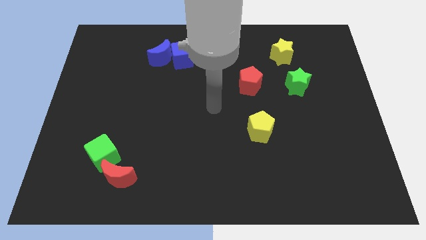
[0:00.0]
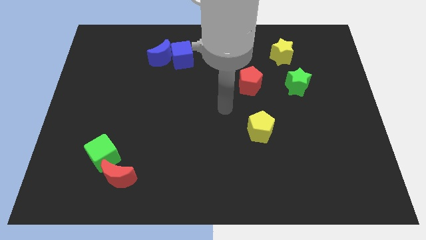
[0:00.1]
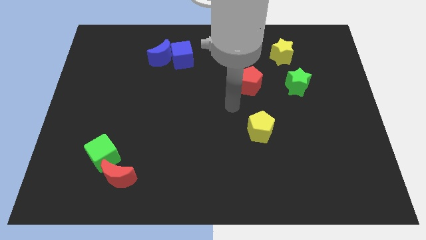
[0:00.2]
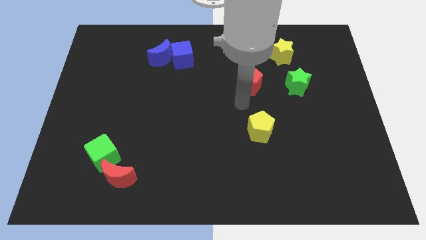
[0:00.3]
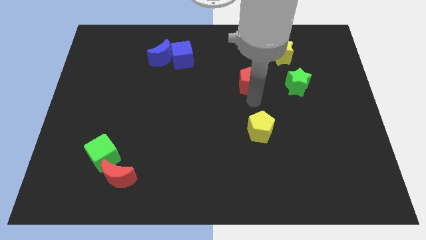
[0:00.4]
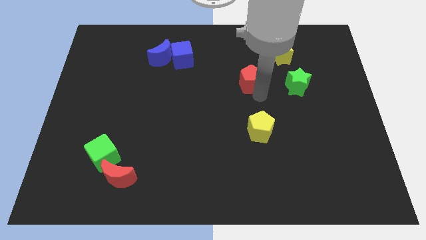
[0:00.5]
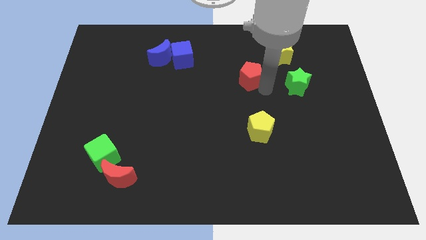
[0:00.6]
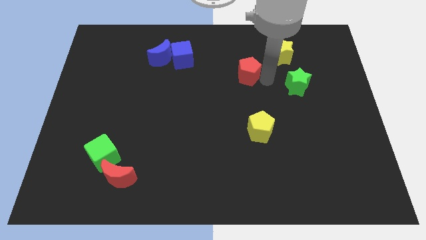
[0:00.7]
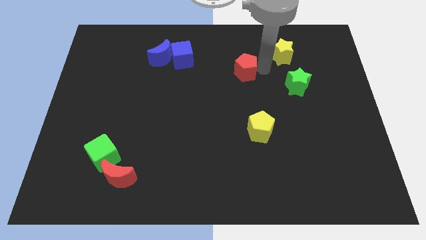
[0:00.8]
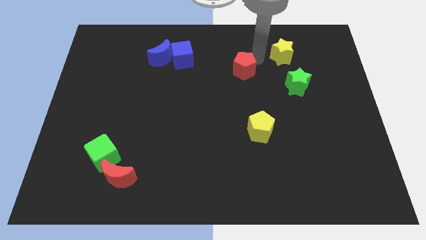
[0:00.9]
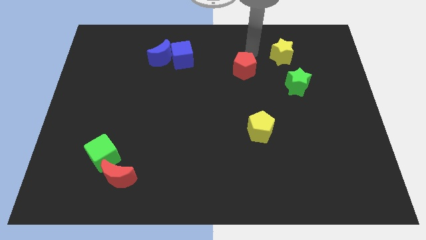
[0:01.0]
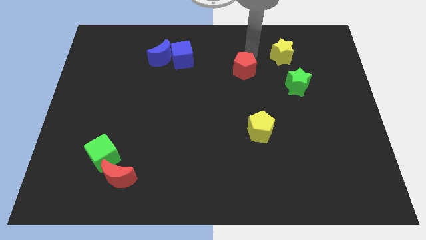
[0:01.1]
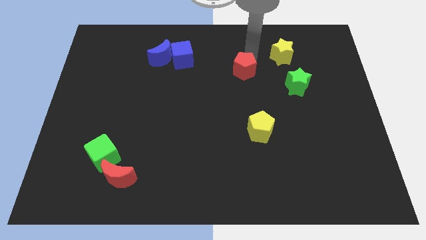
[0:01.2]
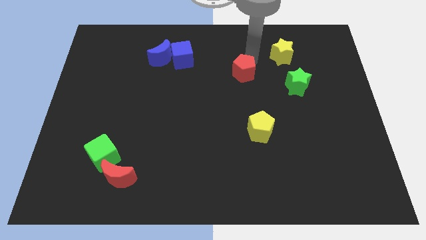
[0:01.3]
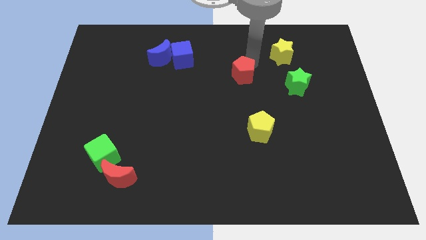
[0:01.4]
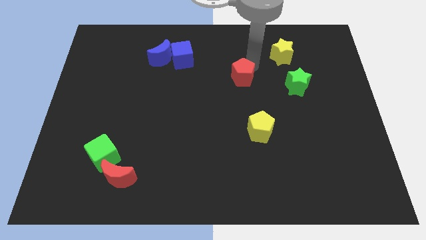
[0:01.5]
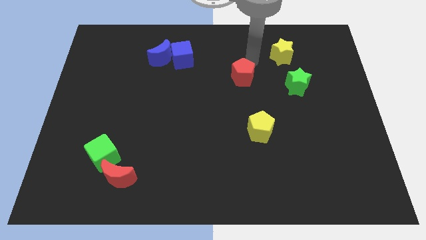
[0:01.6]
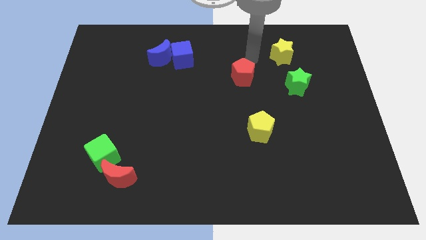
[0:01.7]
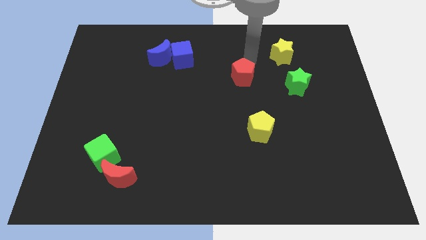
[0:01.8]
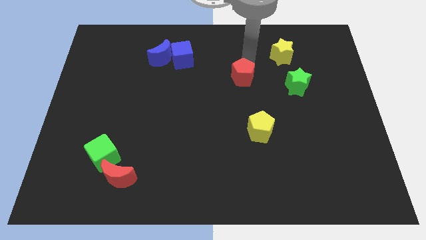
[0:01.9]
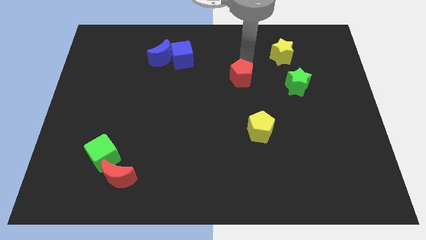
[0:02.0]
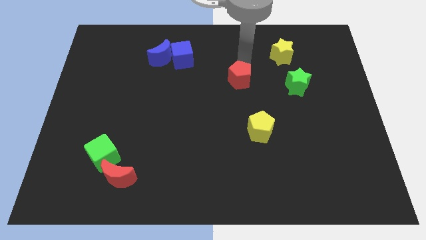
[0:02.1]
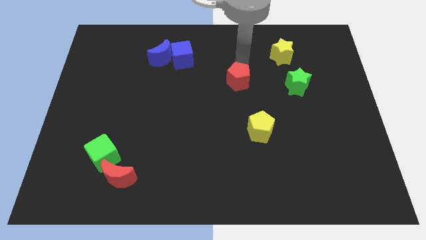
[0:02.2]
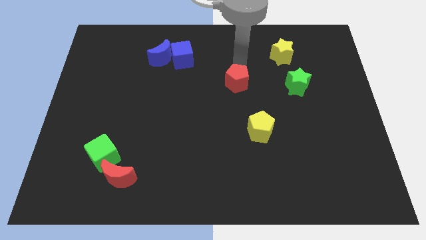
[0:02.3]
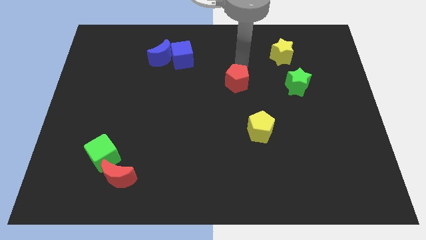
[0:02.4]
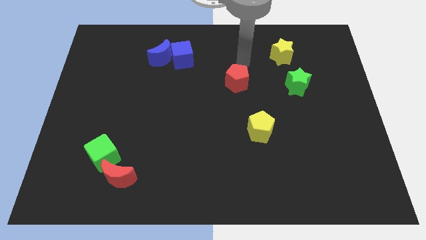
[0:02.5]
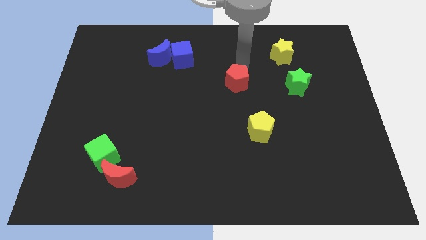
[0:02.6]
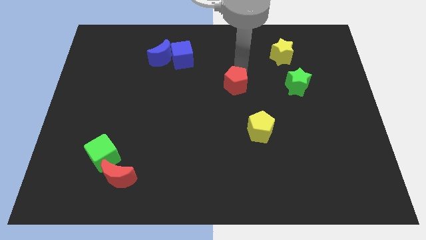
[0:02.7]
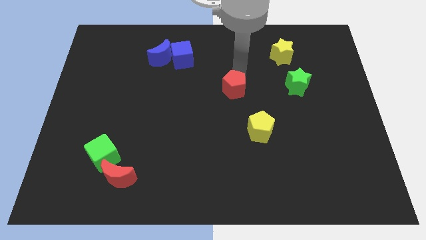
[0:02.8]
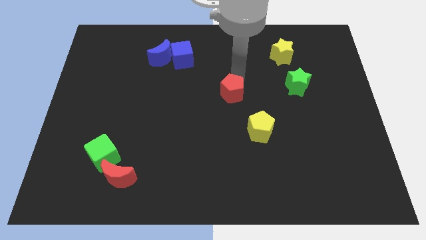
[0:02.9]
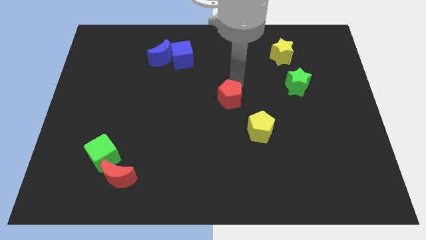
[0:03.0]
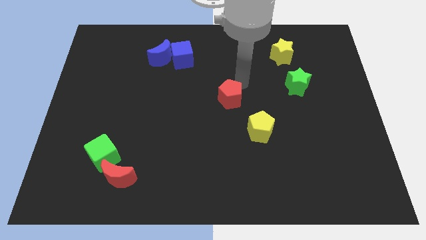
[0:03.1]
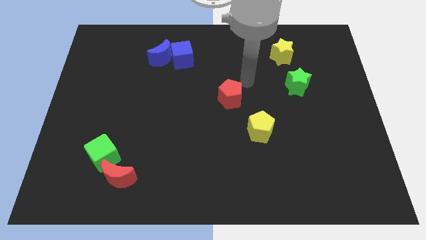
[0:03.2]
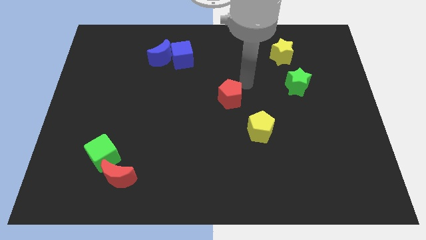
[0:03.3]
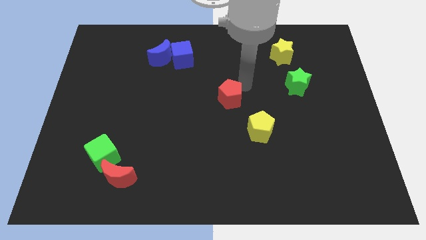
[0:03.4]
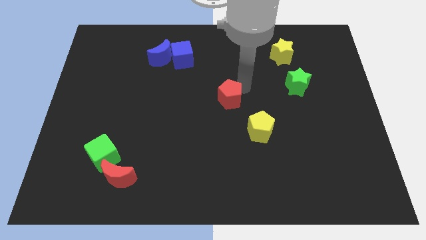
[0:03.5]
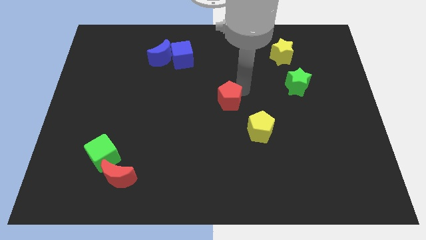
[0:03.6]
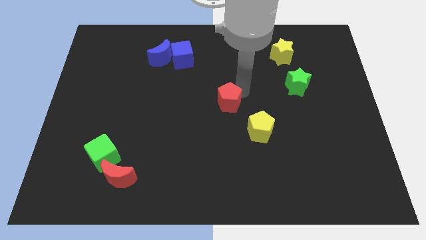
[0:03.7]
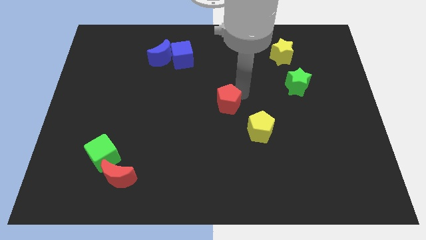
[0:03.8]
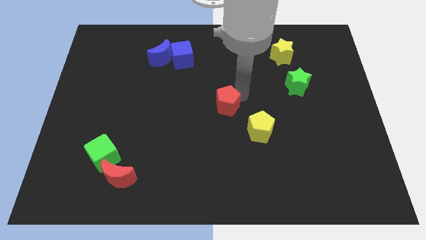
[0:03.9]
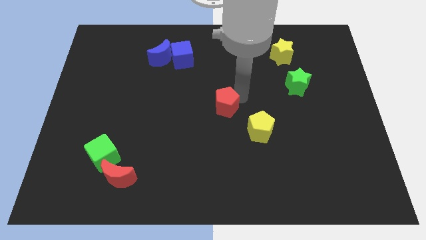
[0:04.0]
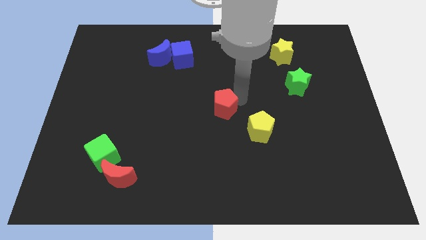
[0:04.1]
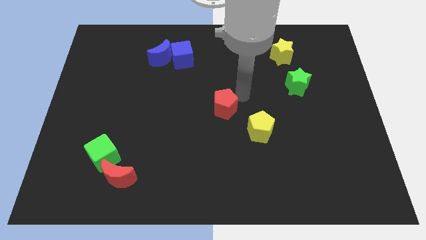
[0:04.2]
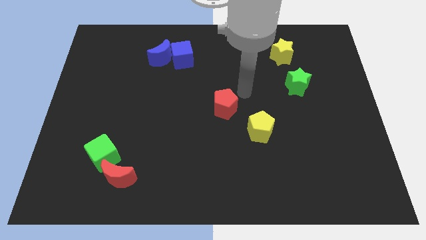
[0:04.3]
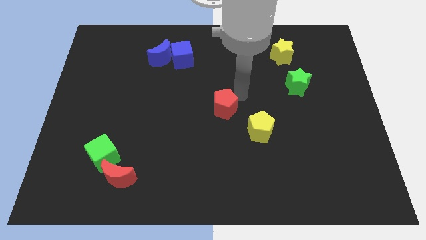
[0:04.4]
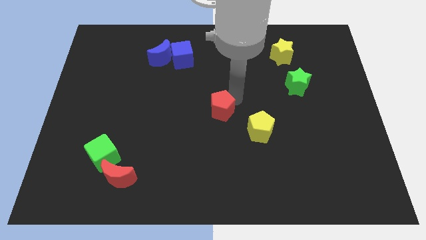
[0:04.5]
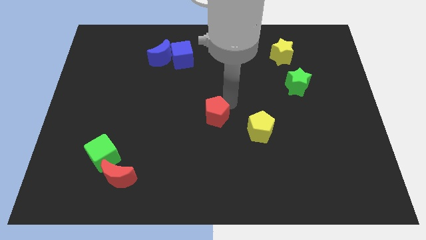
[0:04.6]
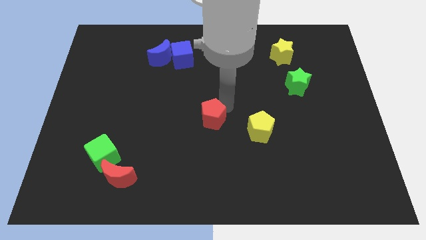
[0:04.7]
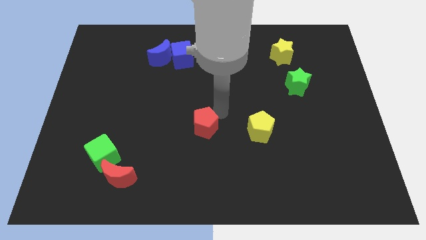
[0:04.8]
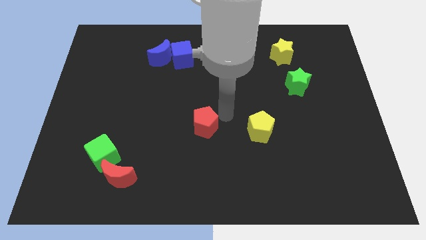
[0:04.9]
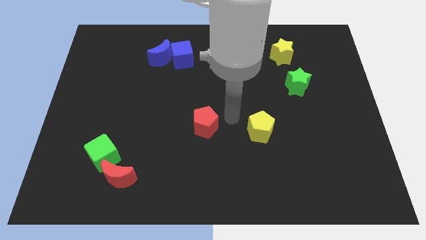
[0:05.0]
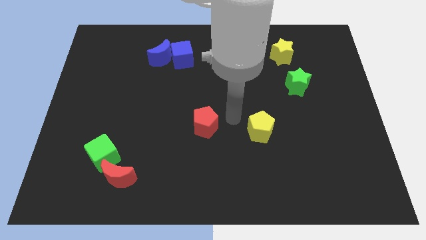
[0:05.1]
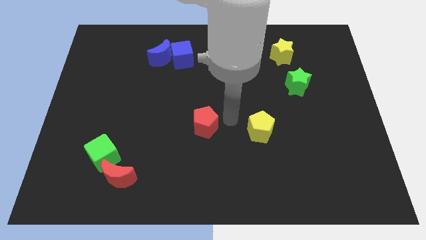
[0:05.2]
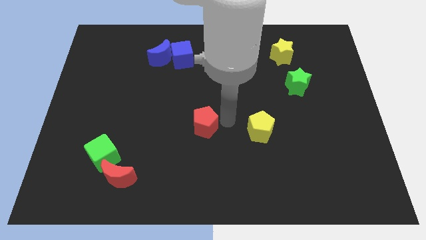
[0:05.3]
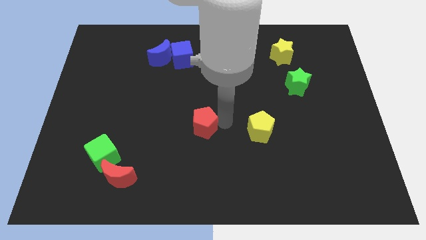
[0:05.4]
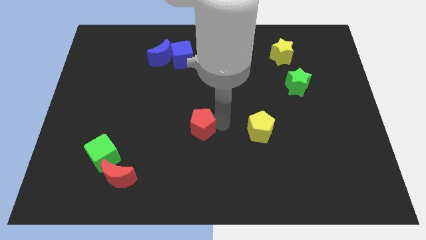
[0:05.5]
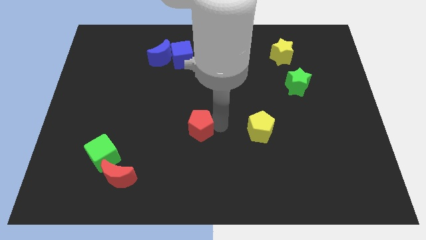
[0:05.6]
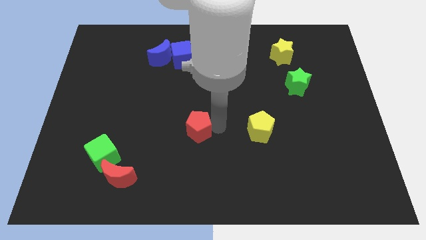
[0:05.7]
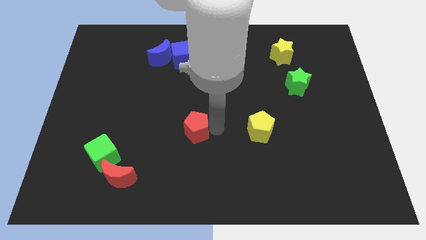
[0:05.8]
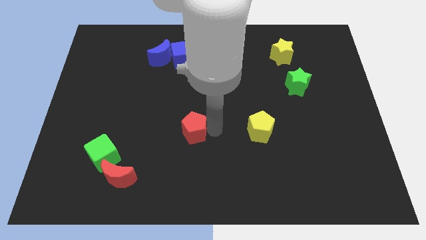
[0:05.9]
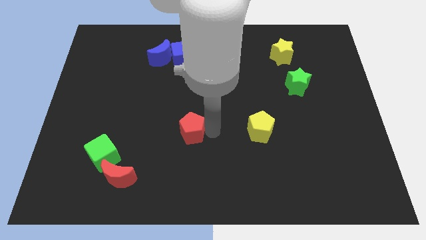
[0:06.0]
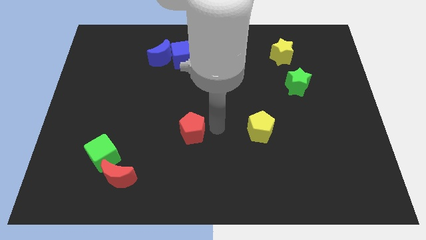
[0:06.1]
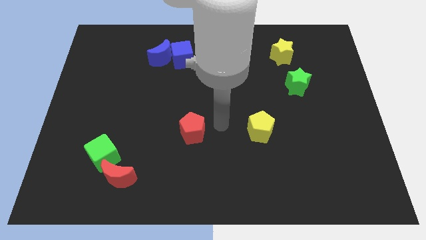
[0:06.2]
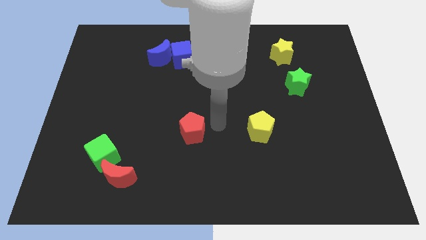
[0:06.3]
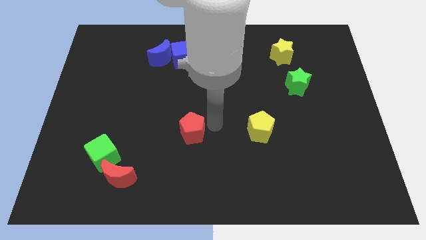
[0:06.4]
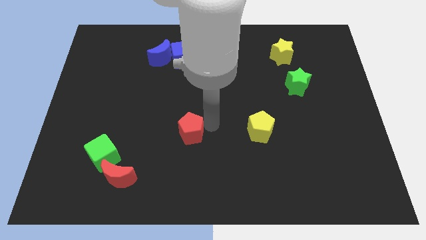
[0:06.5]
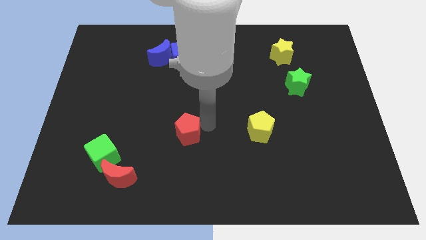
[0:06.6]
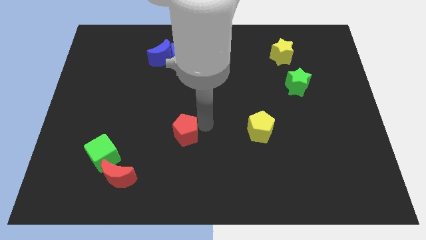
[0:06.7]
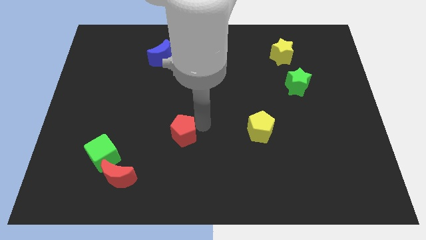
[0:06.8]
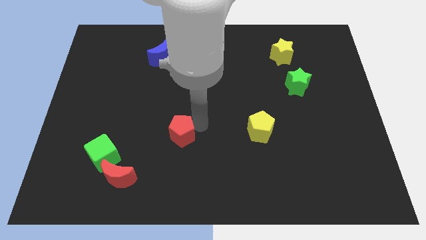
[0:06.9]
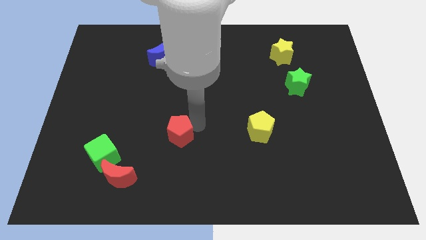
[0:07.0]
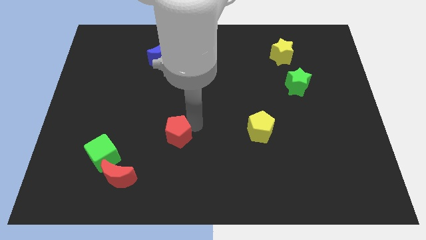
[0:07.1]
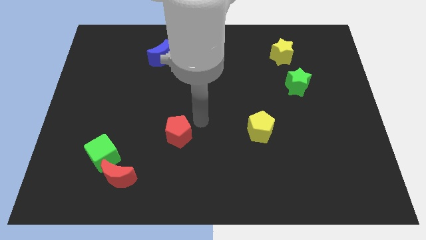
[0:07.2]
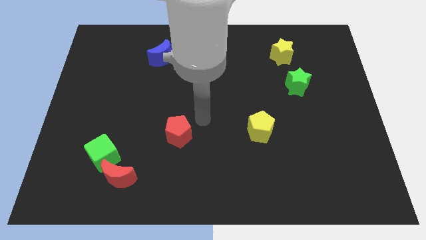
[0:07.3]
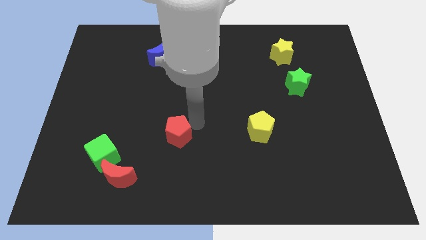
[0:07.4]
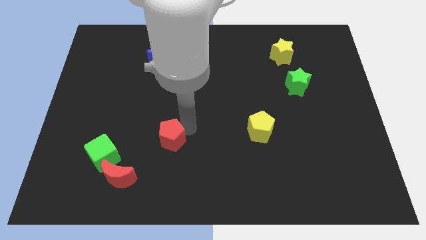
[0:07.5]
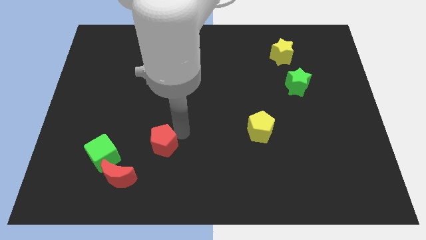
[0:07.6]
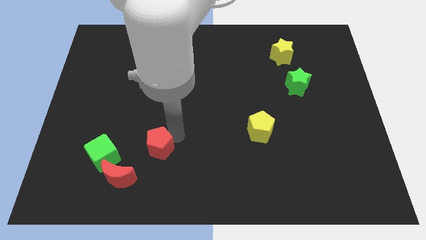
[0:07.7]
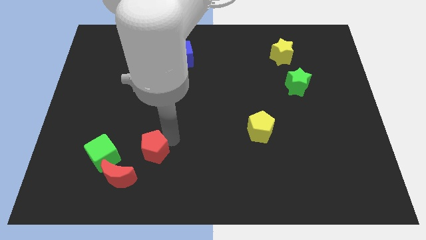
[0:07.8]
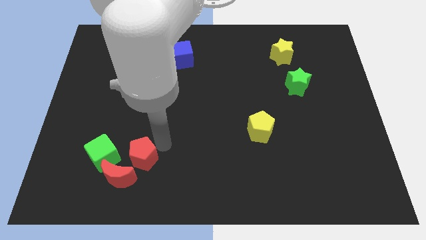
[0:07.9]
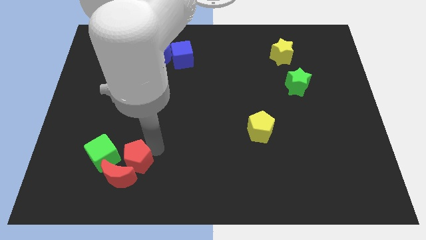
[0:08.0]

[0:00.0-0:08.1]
put the red pentagon towards the red moon
